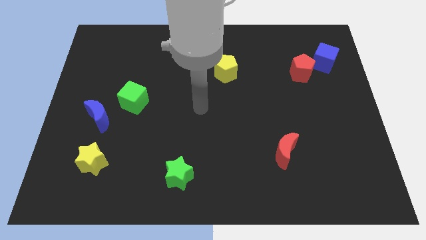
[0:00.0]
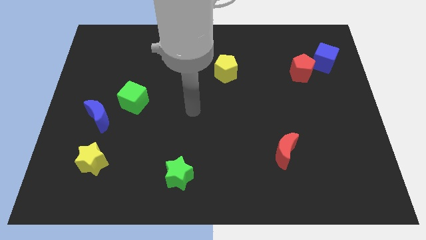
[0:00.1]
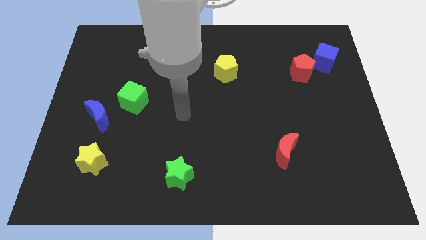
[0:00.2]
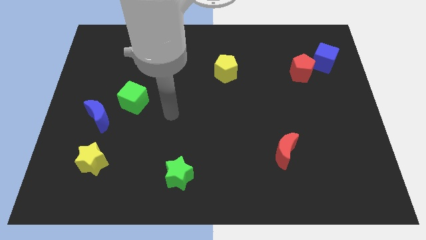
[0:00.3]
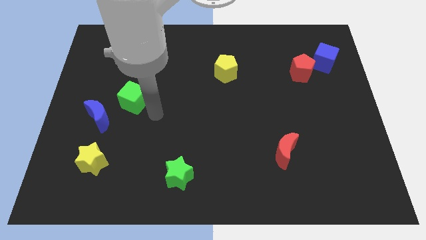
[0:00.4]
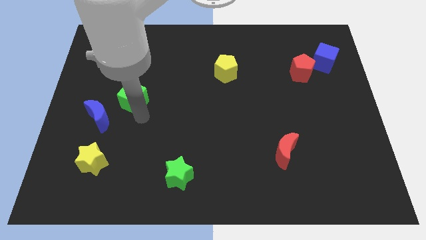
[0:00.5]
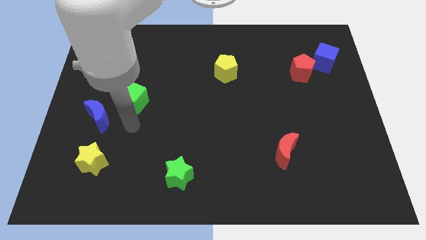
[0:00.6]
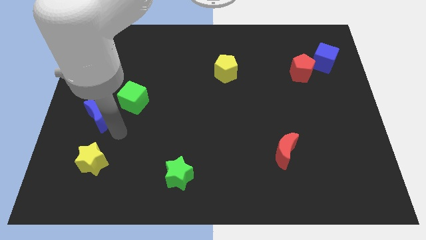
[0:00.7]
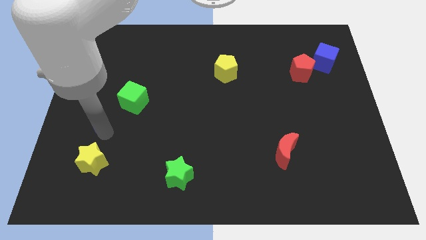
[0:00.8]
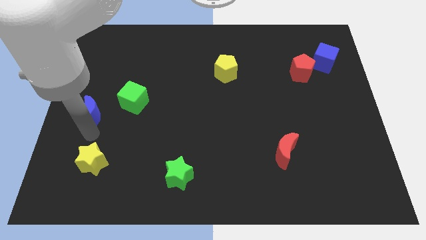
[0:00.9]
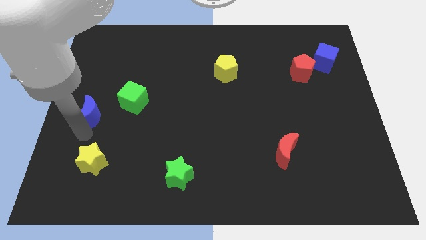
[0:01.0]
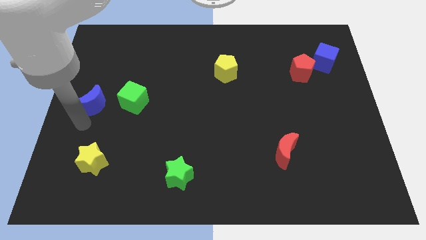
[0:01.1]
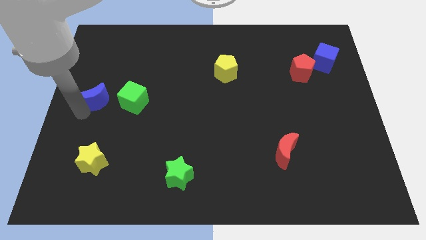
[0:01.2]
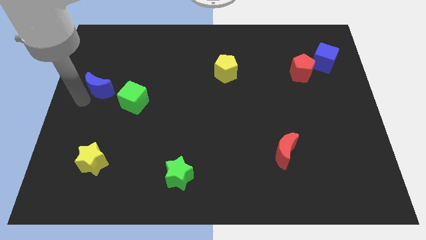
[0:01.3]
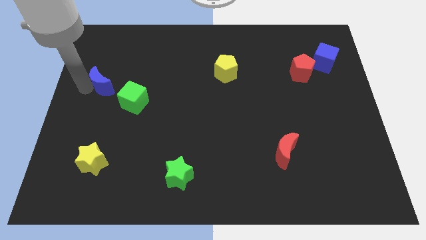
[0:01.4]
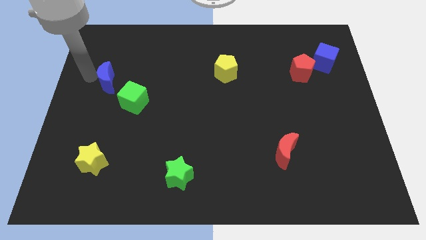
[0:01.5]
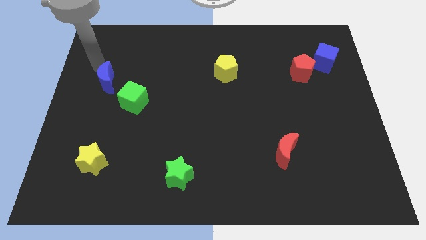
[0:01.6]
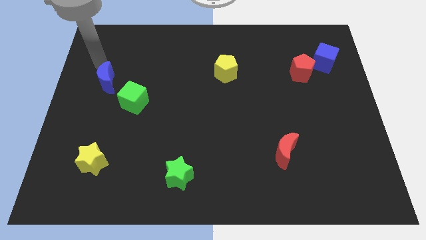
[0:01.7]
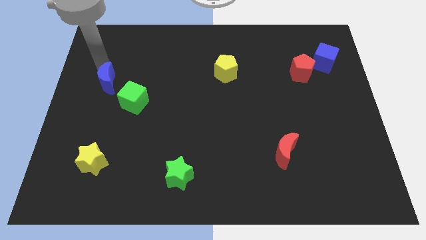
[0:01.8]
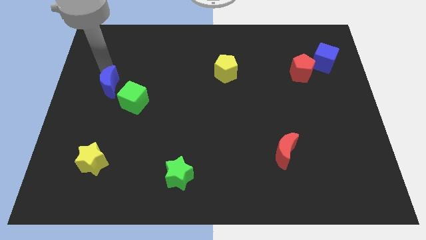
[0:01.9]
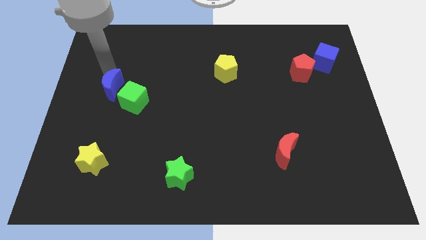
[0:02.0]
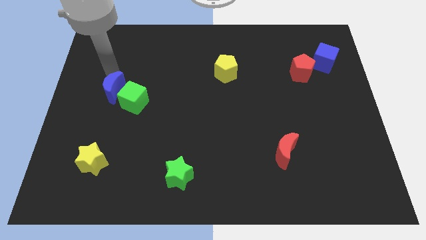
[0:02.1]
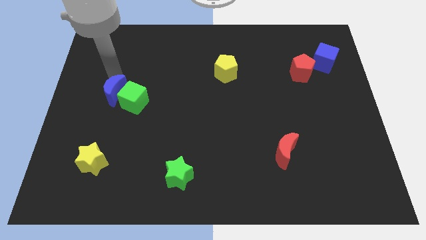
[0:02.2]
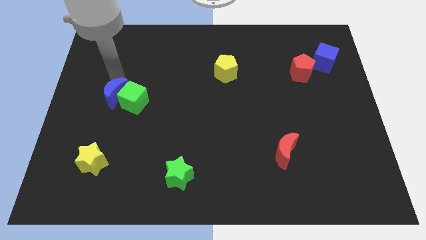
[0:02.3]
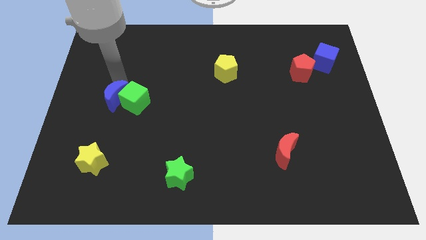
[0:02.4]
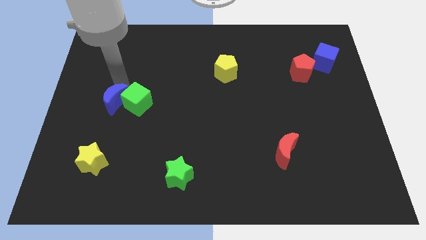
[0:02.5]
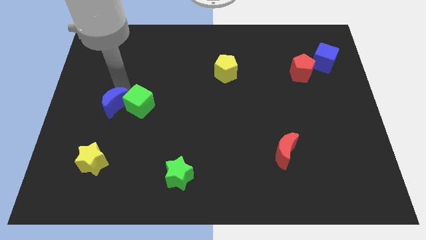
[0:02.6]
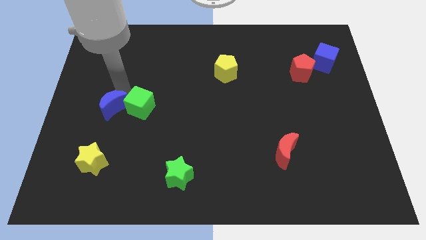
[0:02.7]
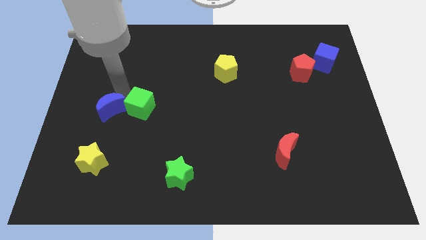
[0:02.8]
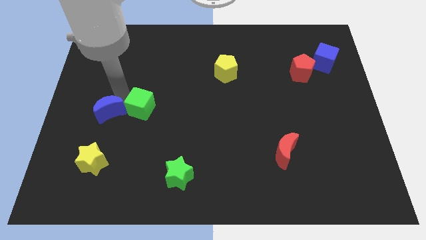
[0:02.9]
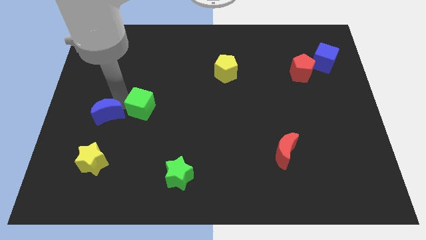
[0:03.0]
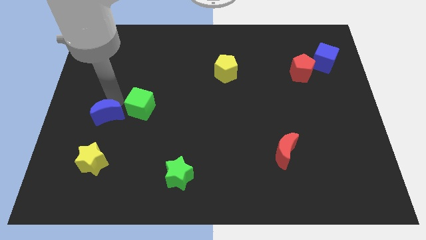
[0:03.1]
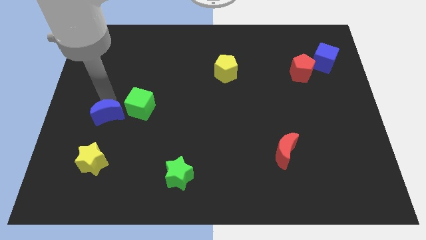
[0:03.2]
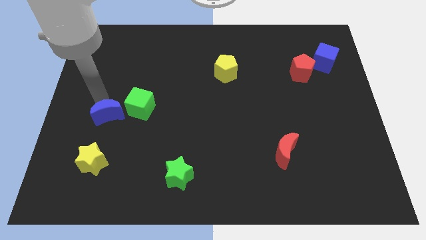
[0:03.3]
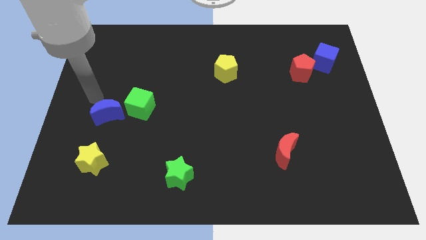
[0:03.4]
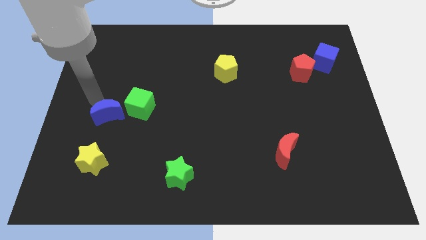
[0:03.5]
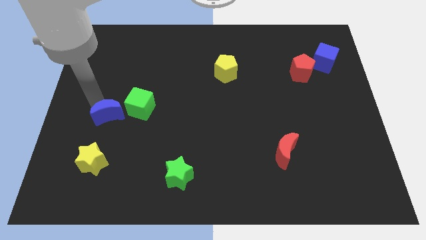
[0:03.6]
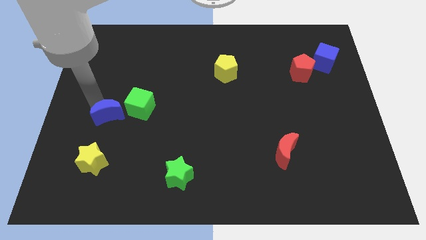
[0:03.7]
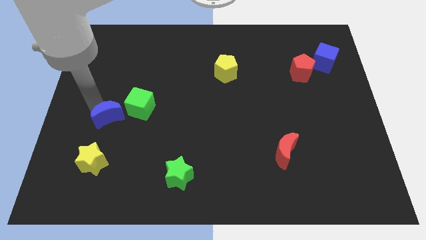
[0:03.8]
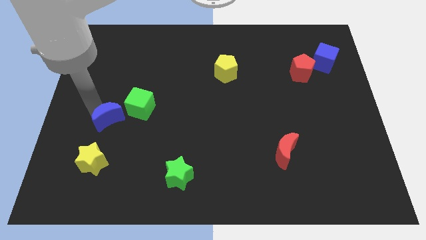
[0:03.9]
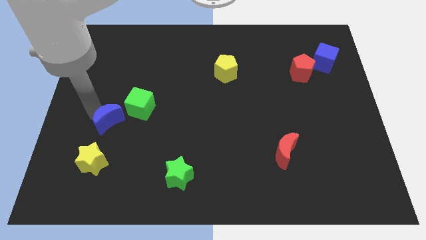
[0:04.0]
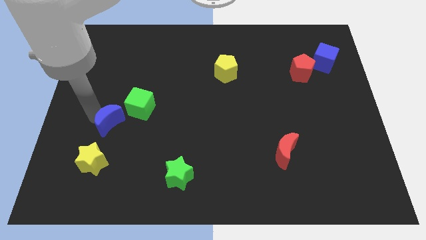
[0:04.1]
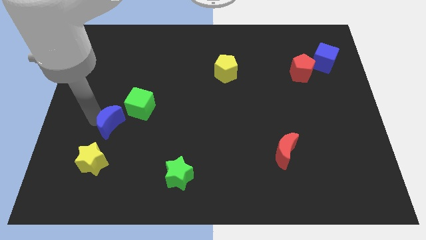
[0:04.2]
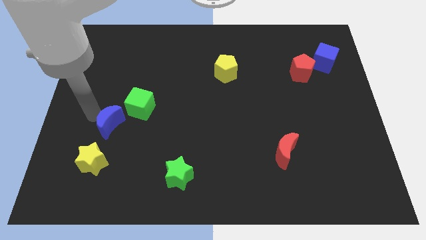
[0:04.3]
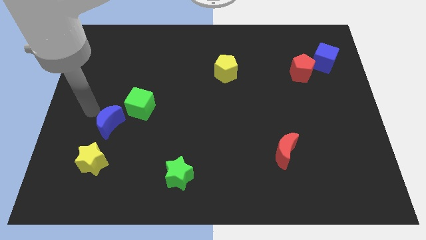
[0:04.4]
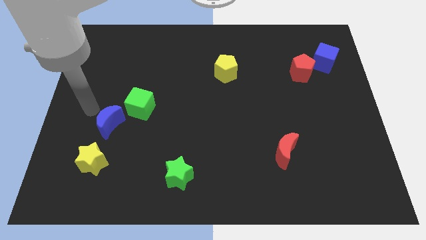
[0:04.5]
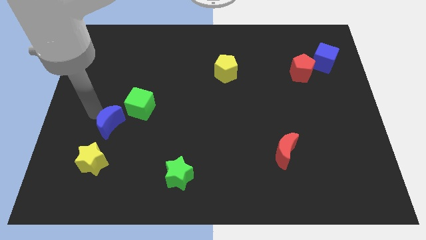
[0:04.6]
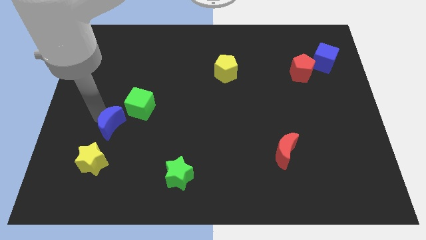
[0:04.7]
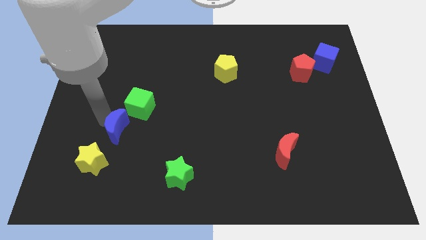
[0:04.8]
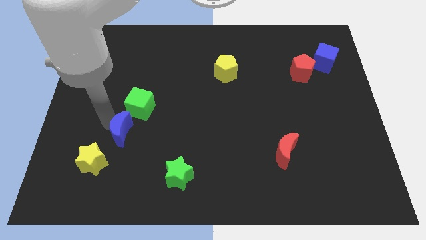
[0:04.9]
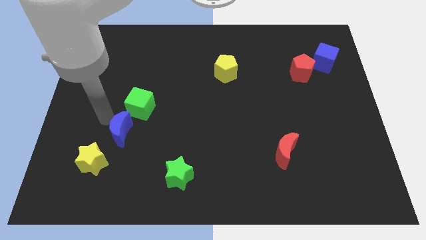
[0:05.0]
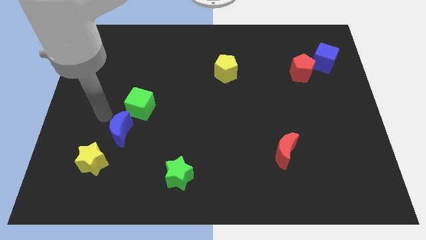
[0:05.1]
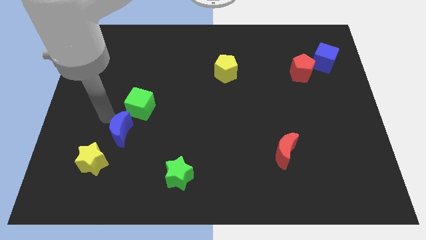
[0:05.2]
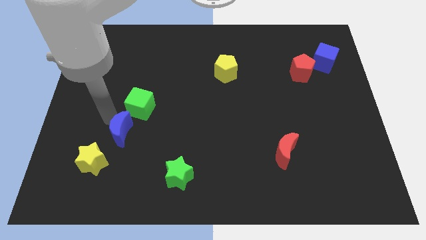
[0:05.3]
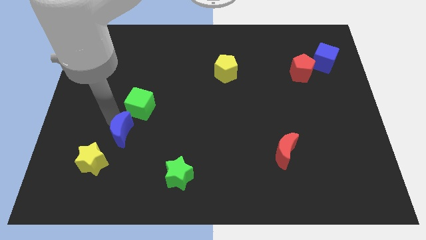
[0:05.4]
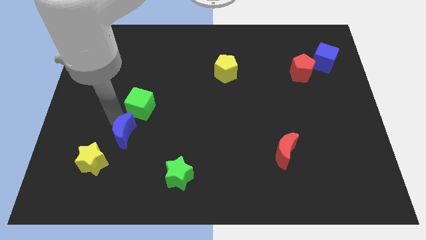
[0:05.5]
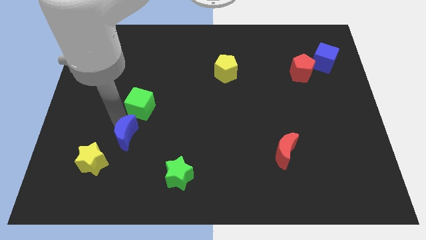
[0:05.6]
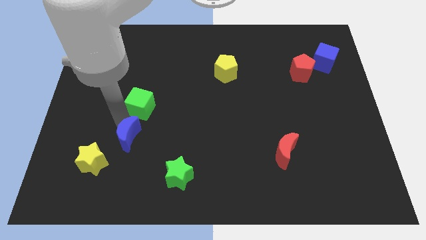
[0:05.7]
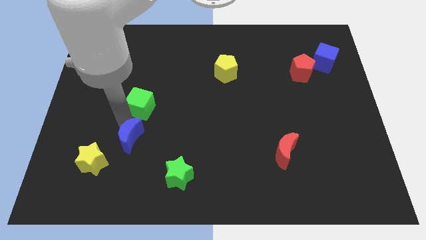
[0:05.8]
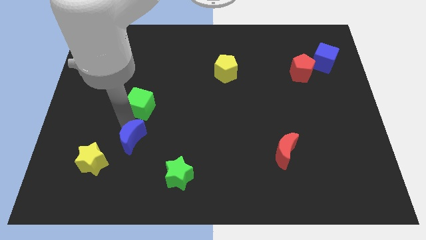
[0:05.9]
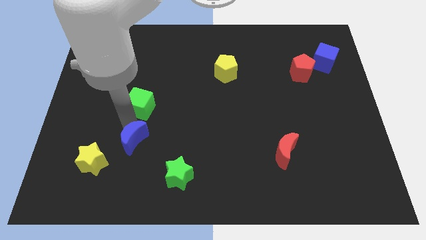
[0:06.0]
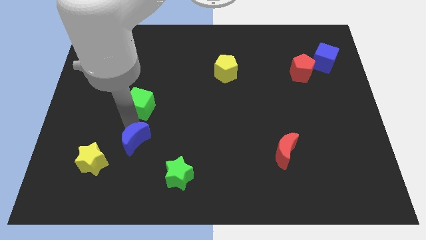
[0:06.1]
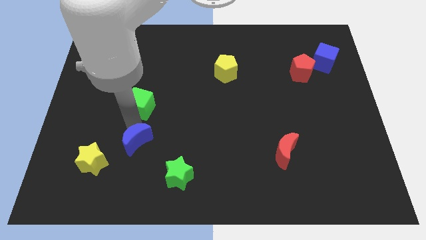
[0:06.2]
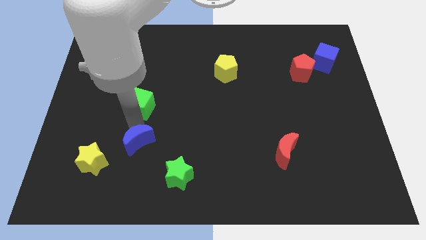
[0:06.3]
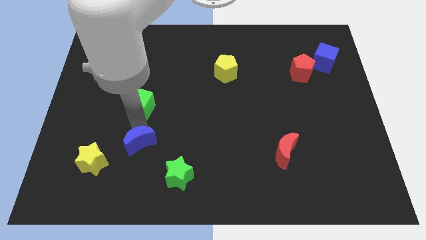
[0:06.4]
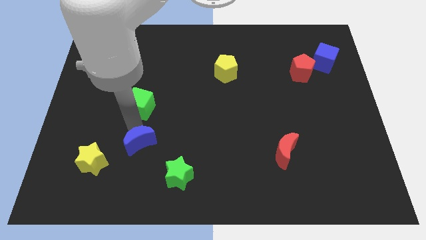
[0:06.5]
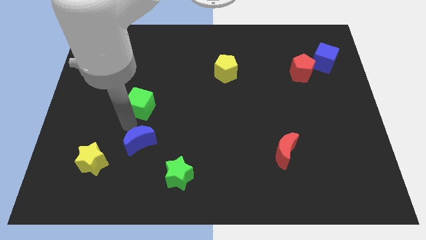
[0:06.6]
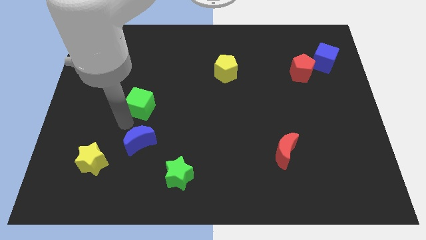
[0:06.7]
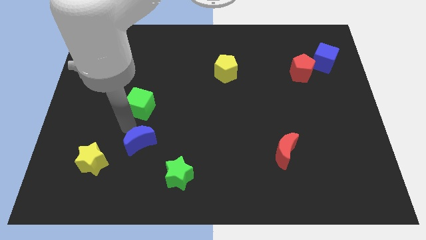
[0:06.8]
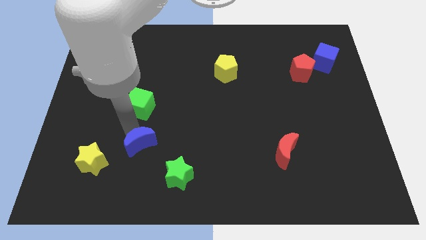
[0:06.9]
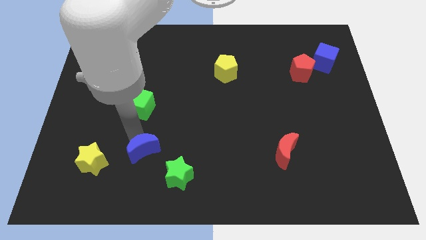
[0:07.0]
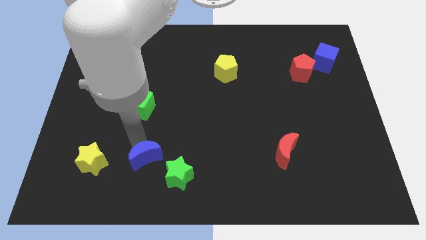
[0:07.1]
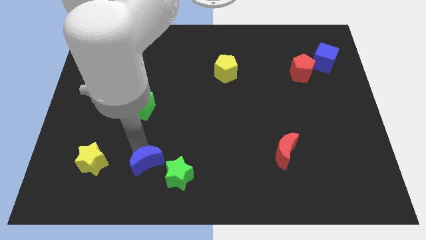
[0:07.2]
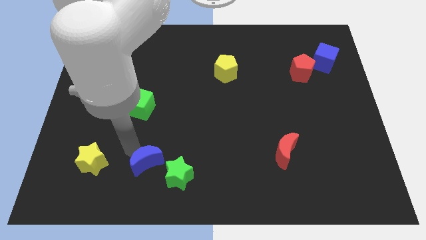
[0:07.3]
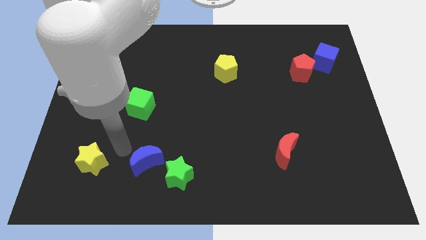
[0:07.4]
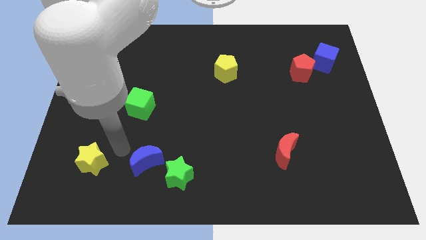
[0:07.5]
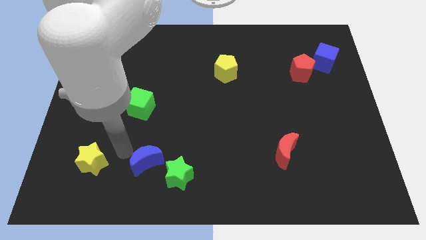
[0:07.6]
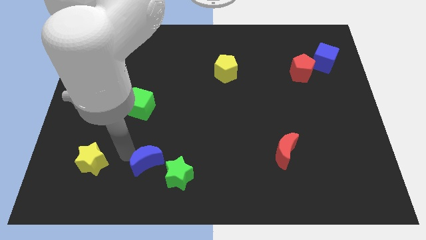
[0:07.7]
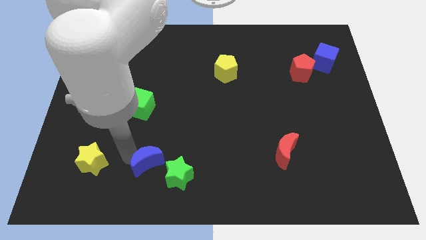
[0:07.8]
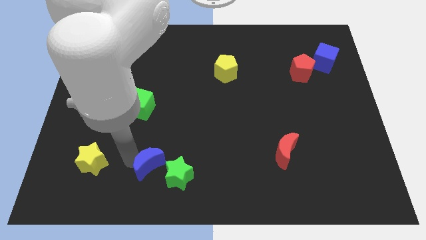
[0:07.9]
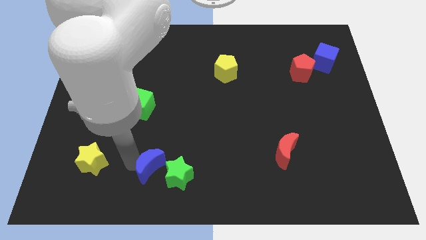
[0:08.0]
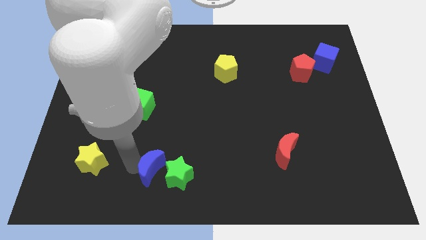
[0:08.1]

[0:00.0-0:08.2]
move the blue moon next to the green star
